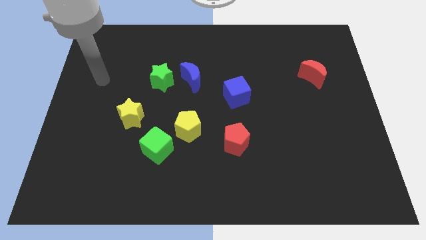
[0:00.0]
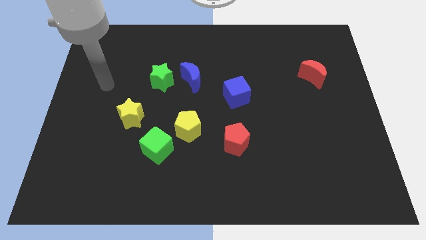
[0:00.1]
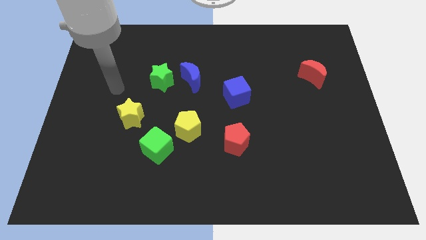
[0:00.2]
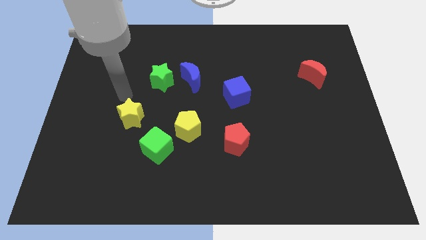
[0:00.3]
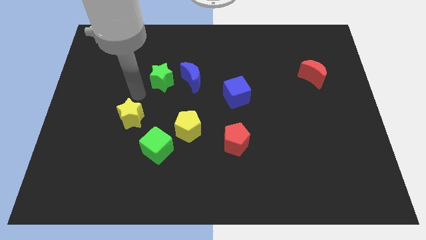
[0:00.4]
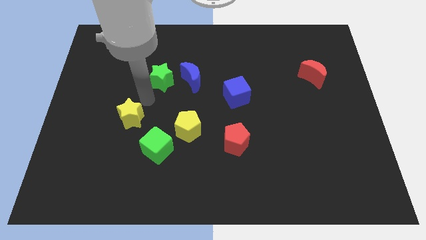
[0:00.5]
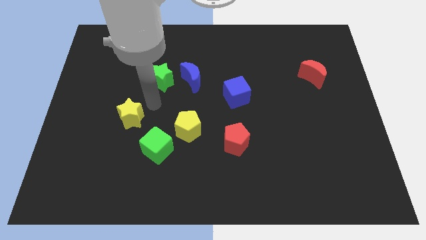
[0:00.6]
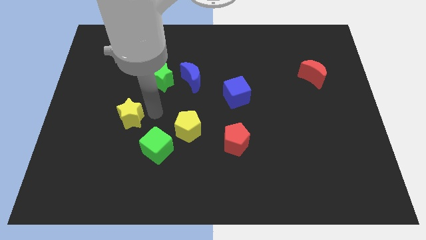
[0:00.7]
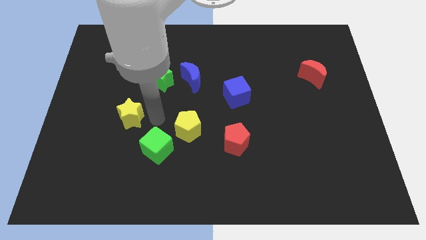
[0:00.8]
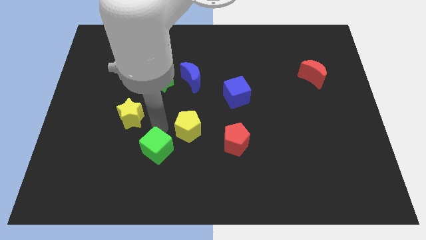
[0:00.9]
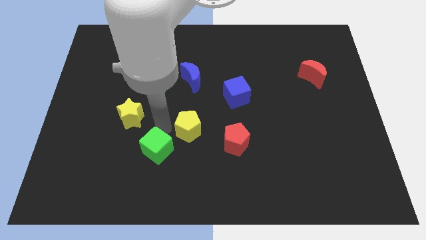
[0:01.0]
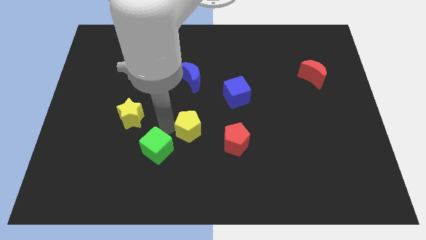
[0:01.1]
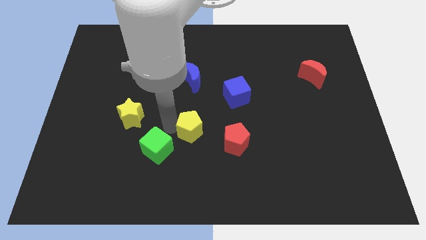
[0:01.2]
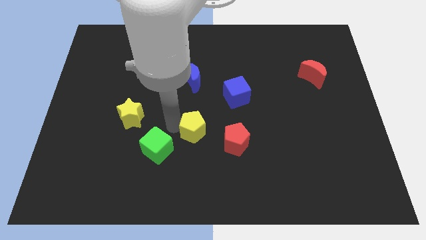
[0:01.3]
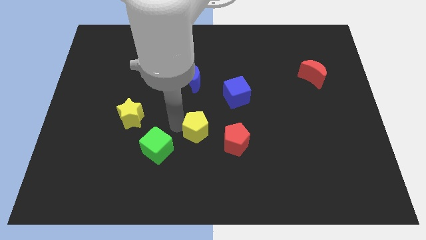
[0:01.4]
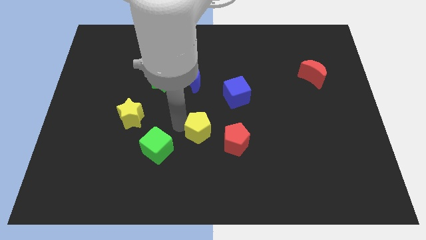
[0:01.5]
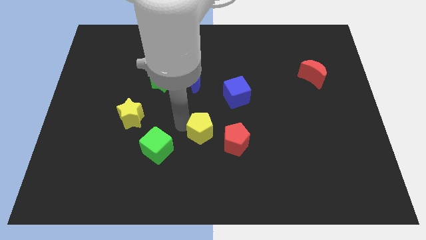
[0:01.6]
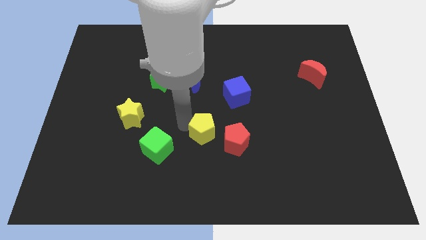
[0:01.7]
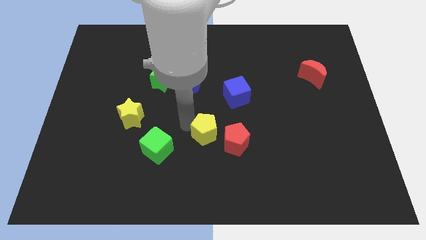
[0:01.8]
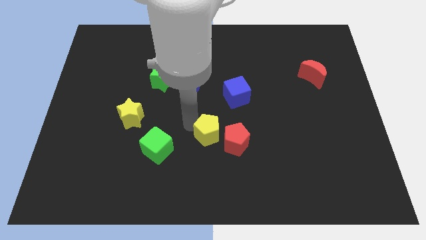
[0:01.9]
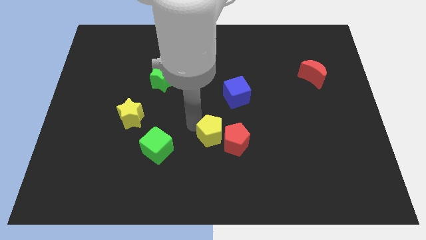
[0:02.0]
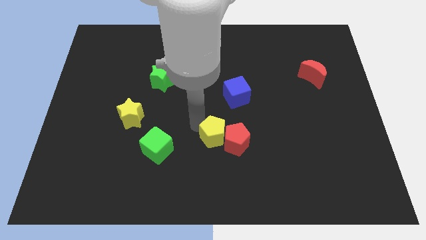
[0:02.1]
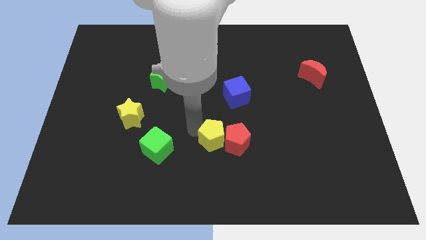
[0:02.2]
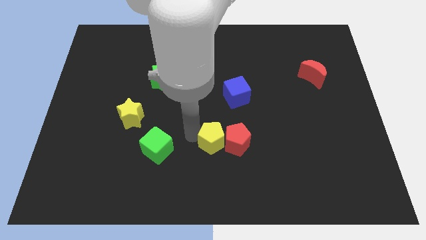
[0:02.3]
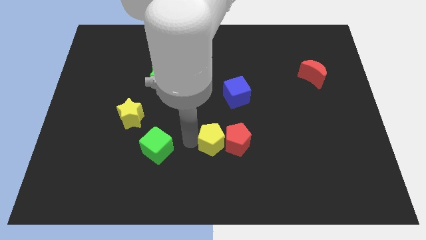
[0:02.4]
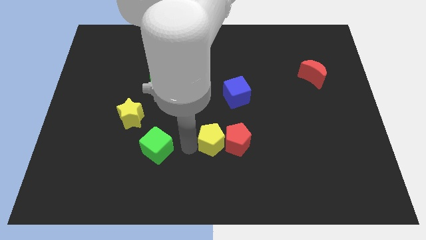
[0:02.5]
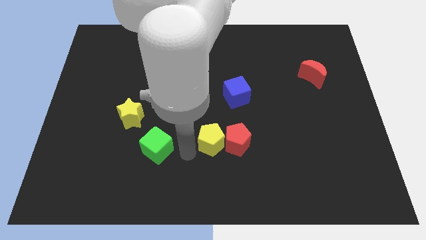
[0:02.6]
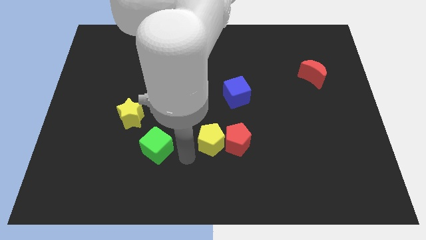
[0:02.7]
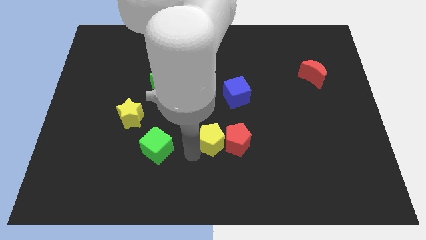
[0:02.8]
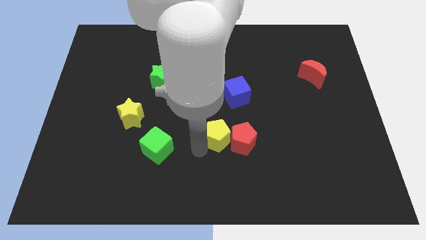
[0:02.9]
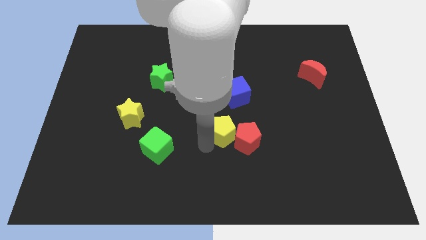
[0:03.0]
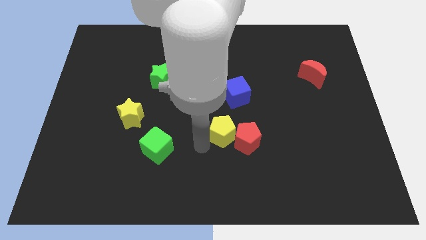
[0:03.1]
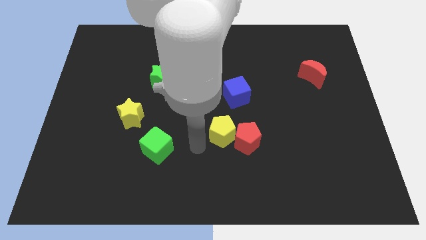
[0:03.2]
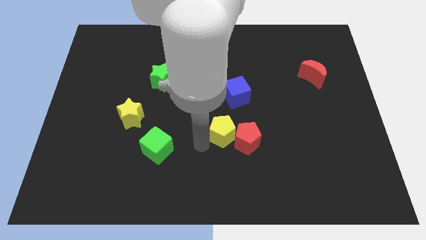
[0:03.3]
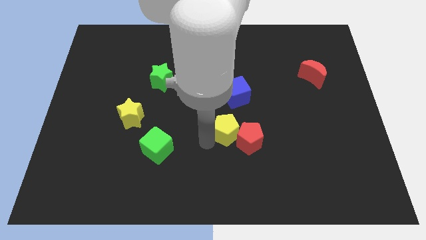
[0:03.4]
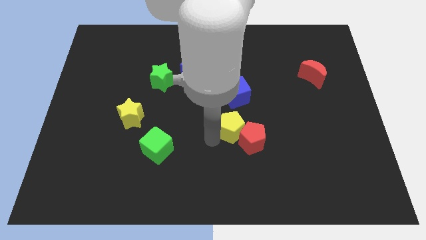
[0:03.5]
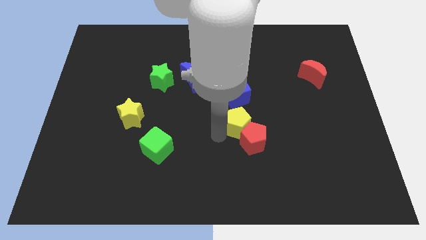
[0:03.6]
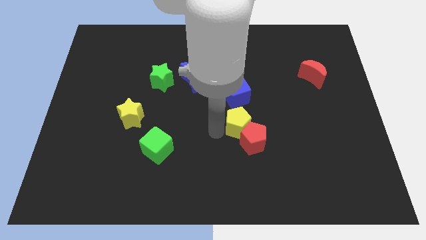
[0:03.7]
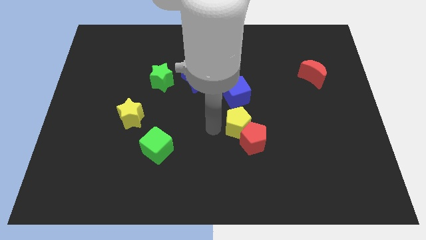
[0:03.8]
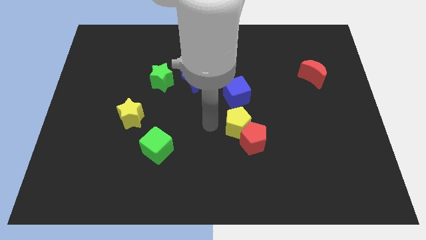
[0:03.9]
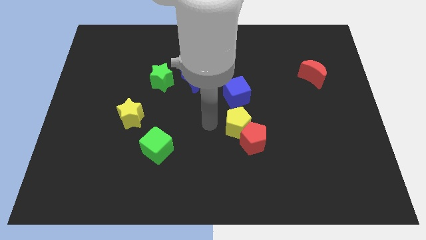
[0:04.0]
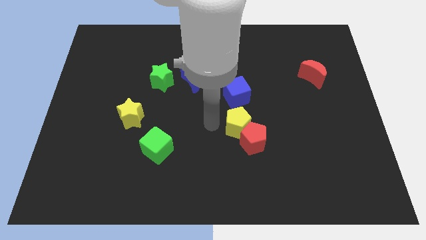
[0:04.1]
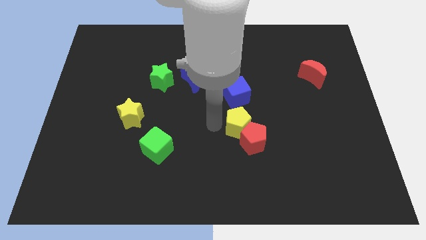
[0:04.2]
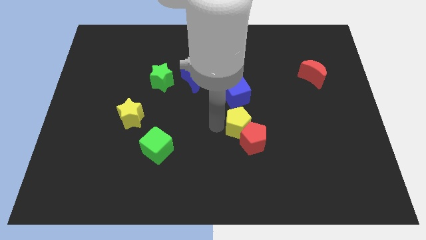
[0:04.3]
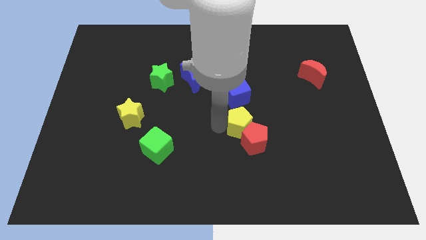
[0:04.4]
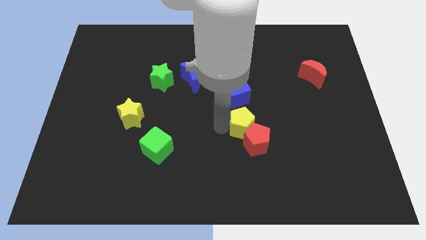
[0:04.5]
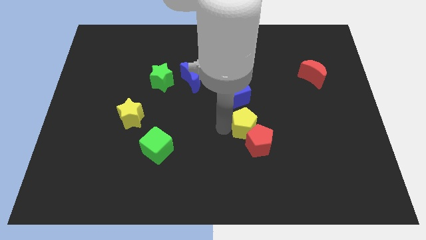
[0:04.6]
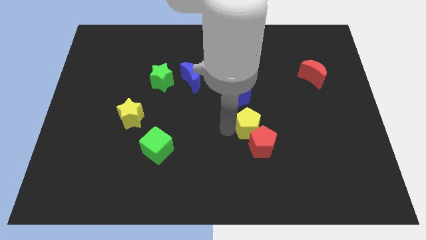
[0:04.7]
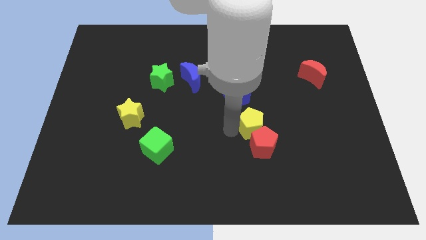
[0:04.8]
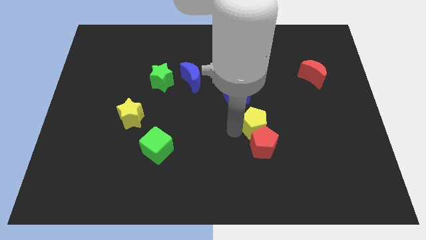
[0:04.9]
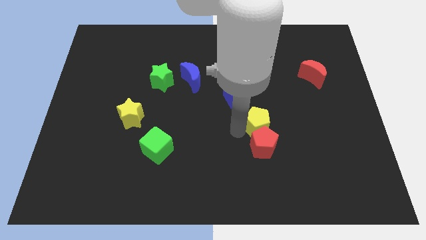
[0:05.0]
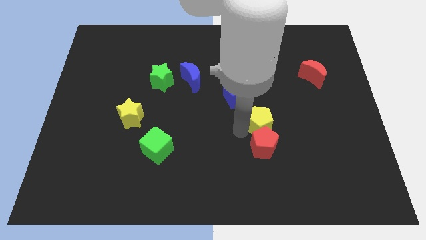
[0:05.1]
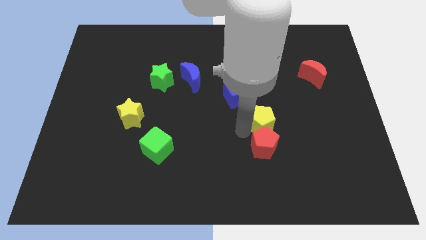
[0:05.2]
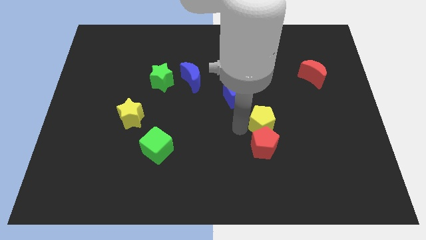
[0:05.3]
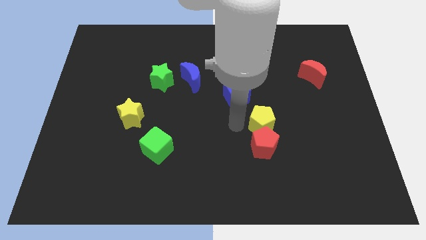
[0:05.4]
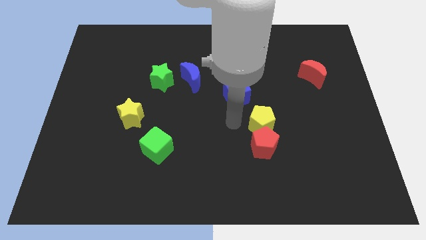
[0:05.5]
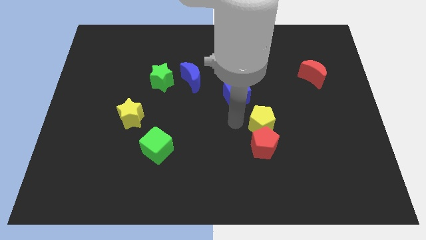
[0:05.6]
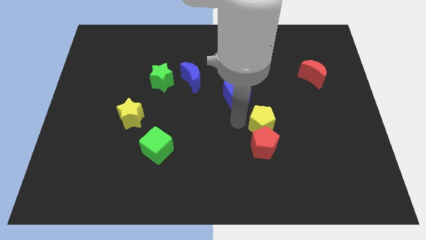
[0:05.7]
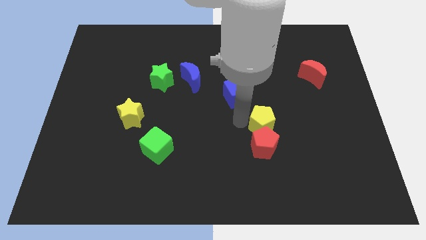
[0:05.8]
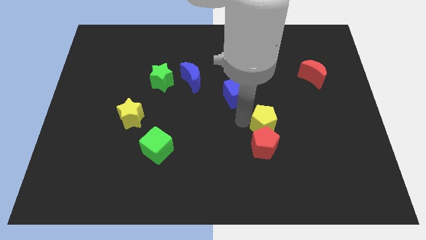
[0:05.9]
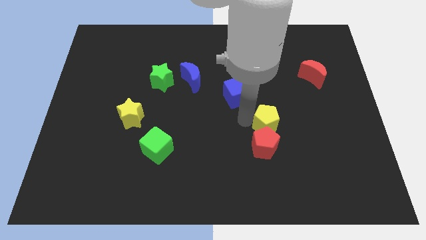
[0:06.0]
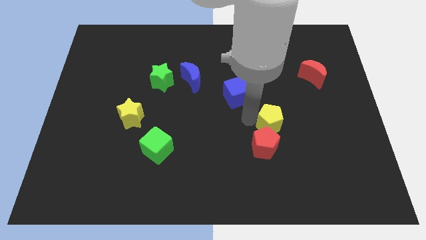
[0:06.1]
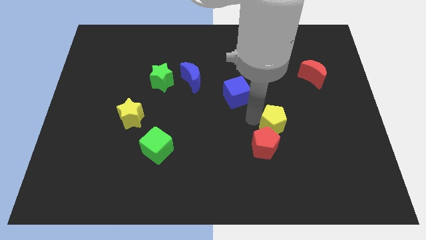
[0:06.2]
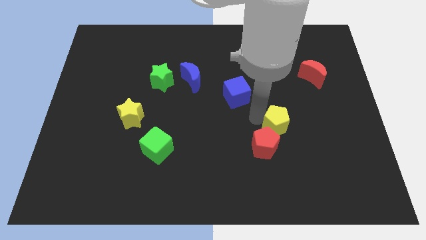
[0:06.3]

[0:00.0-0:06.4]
push the yellow pentagon to the right

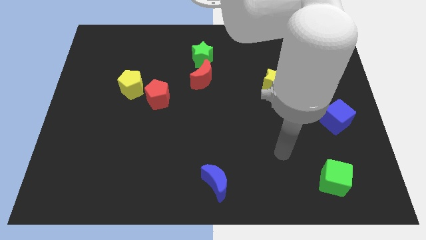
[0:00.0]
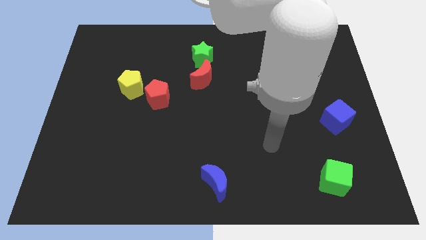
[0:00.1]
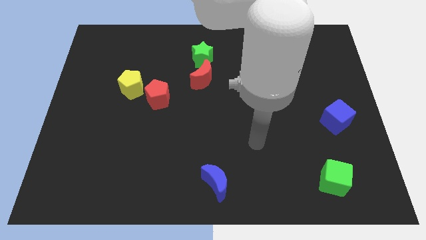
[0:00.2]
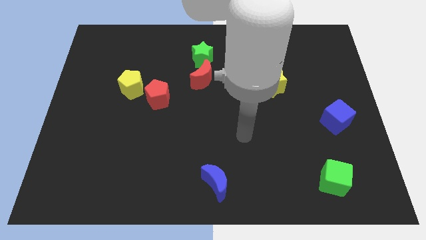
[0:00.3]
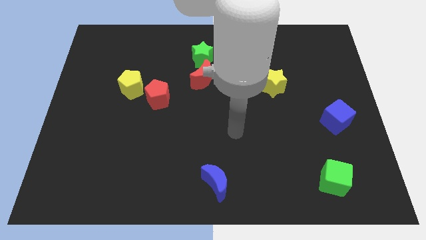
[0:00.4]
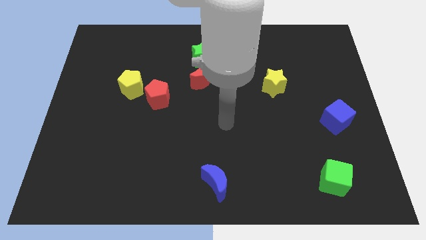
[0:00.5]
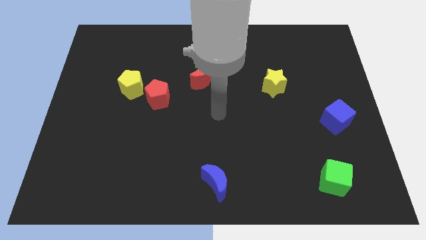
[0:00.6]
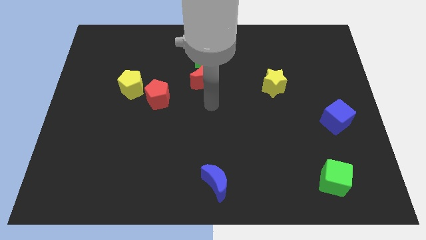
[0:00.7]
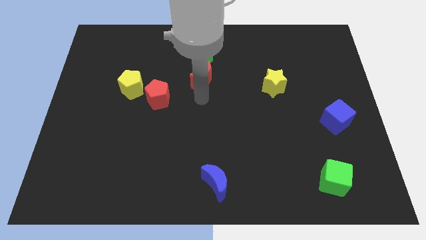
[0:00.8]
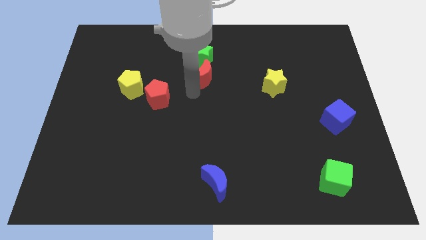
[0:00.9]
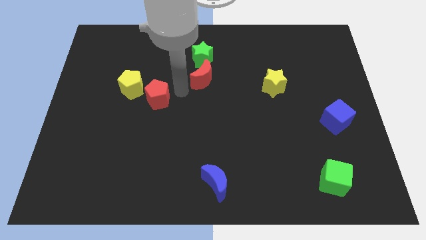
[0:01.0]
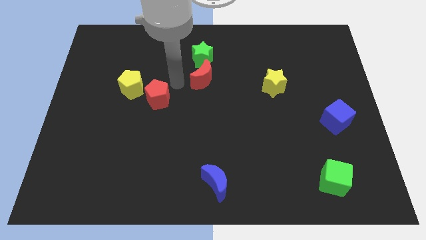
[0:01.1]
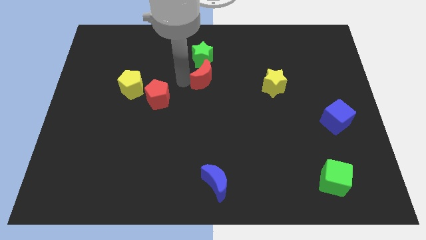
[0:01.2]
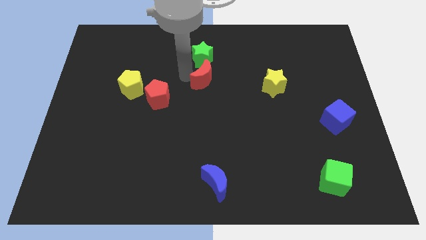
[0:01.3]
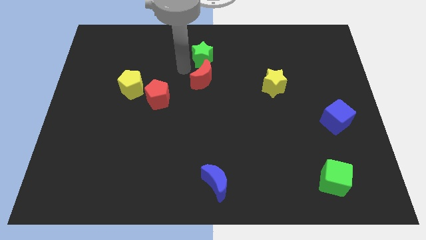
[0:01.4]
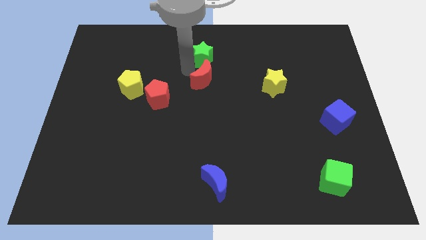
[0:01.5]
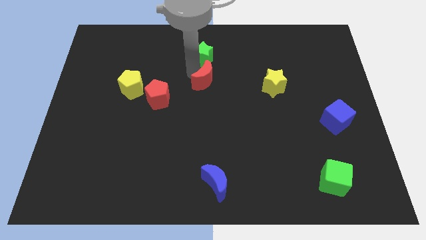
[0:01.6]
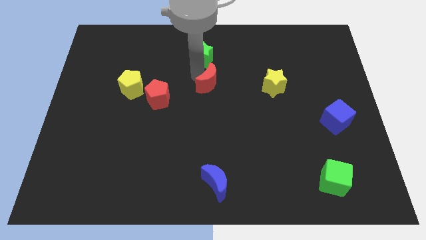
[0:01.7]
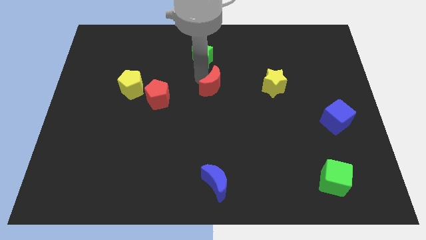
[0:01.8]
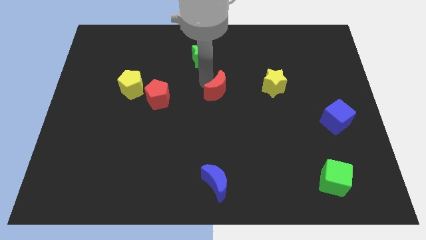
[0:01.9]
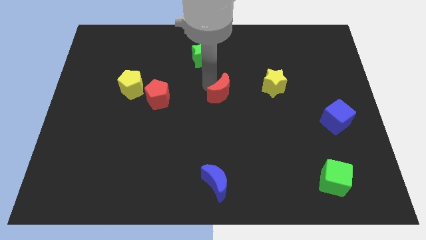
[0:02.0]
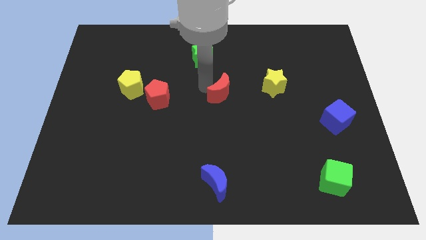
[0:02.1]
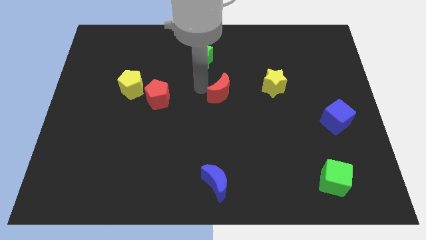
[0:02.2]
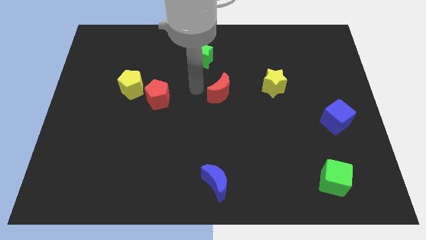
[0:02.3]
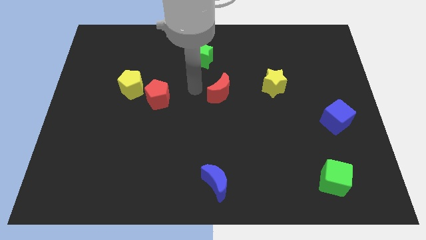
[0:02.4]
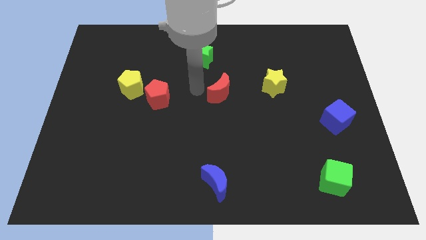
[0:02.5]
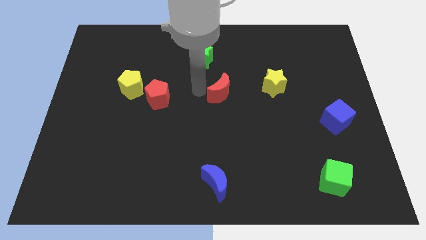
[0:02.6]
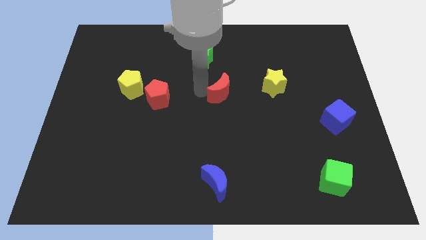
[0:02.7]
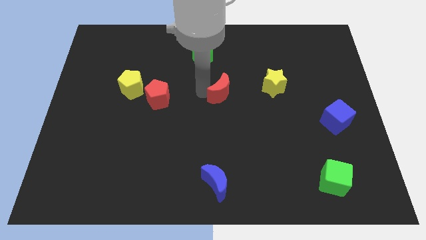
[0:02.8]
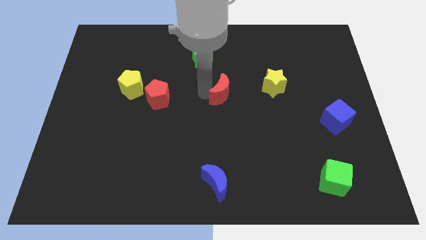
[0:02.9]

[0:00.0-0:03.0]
move the red moon a bit downwards and right
